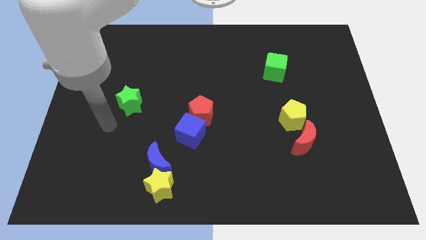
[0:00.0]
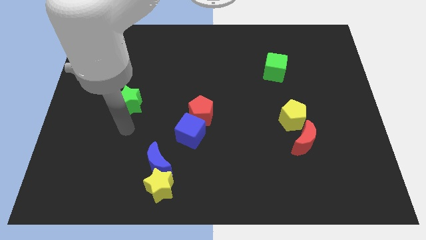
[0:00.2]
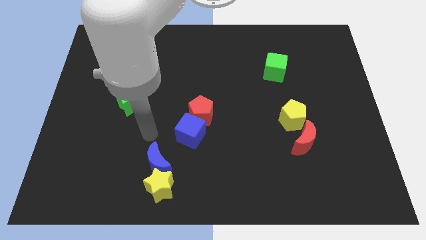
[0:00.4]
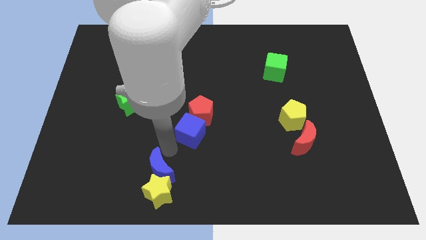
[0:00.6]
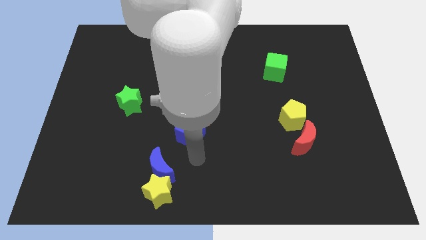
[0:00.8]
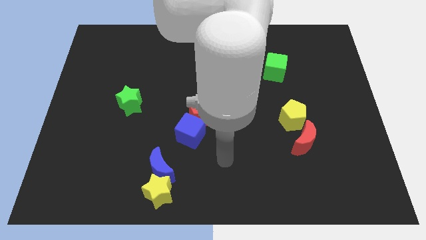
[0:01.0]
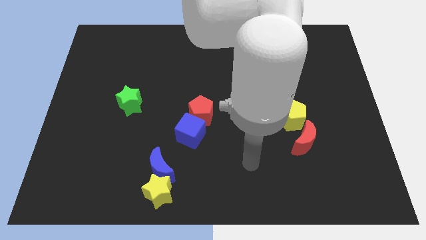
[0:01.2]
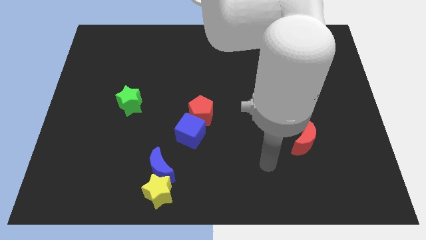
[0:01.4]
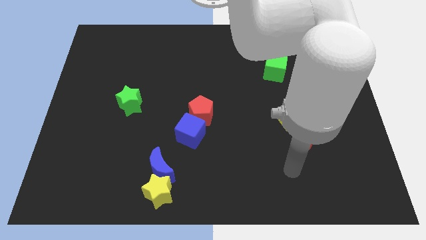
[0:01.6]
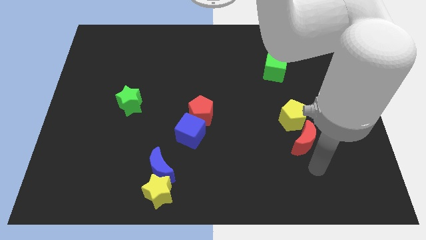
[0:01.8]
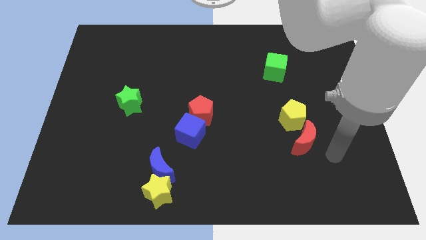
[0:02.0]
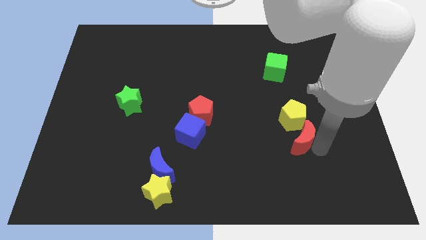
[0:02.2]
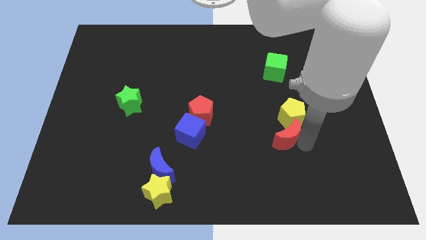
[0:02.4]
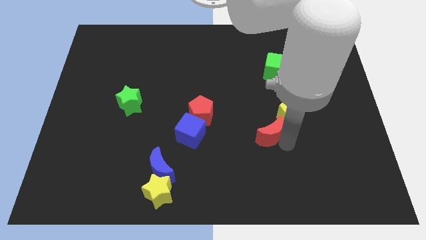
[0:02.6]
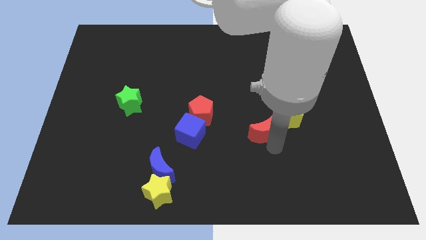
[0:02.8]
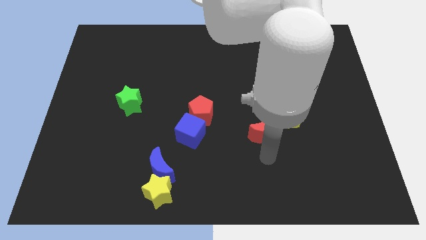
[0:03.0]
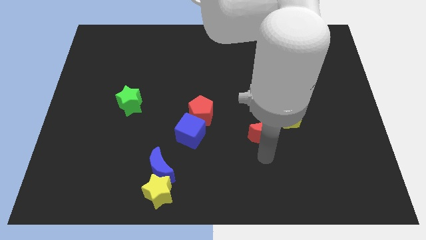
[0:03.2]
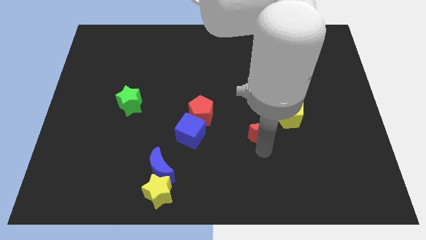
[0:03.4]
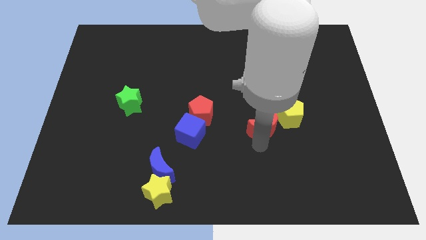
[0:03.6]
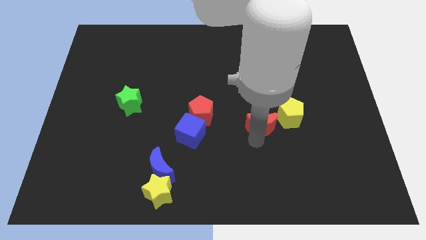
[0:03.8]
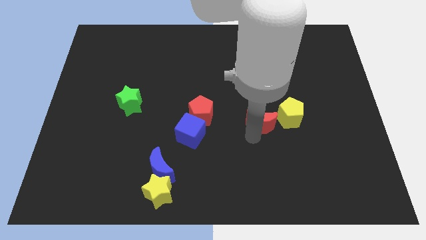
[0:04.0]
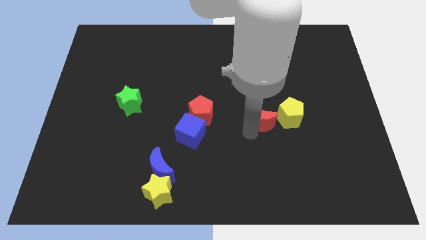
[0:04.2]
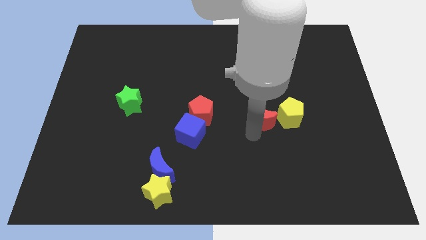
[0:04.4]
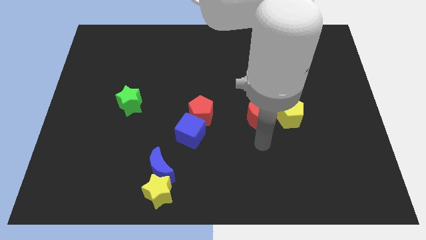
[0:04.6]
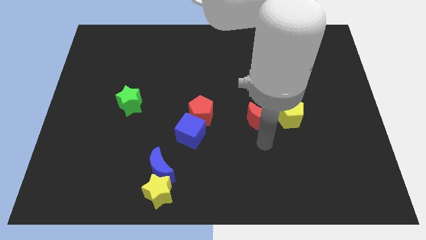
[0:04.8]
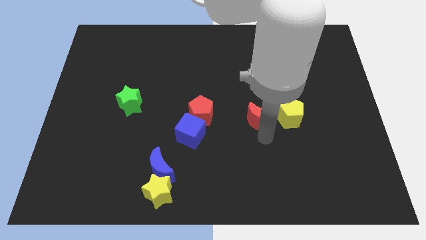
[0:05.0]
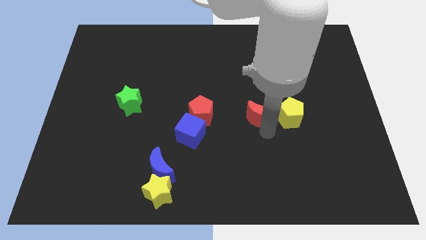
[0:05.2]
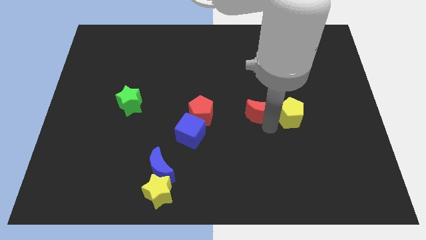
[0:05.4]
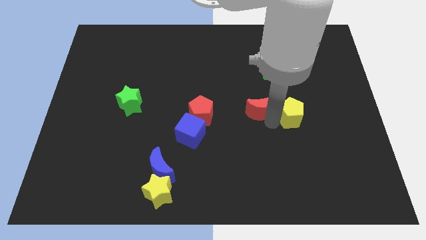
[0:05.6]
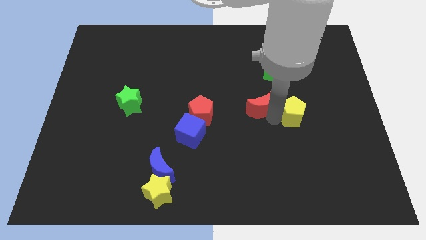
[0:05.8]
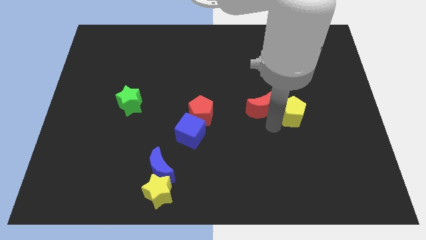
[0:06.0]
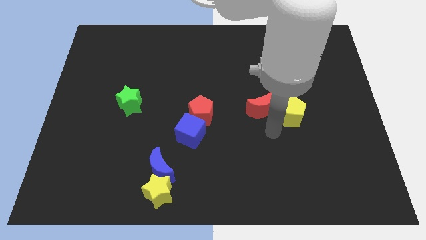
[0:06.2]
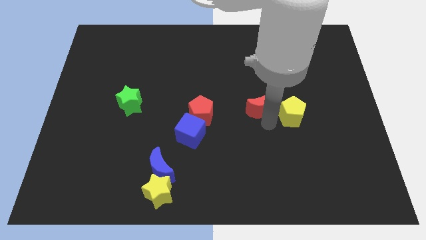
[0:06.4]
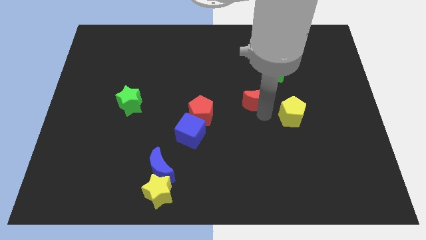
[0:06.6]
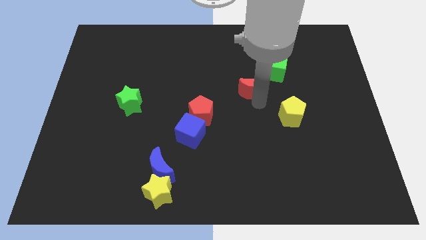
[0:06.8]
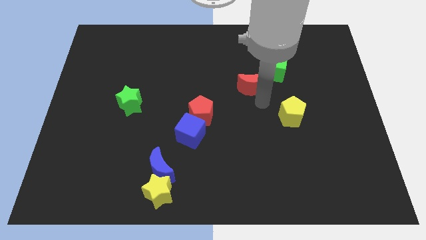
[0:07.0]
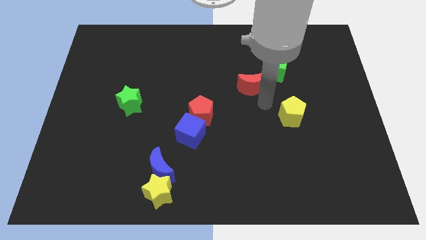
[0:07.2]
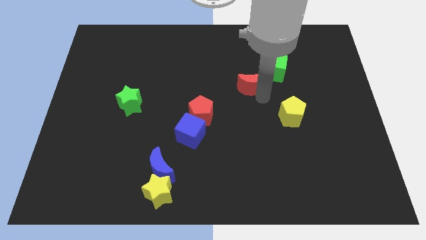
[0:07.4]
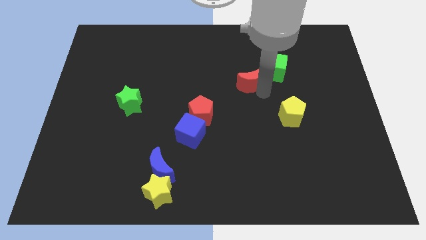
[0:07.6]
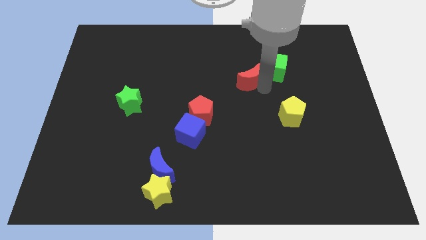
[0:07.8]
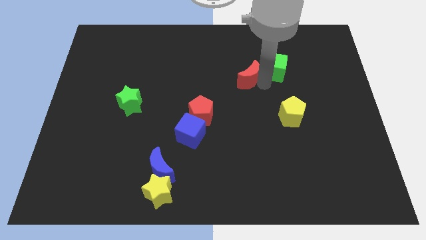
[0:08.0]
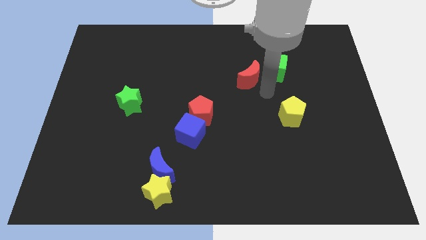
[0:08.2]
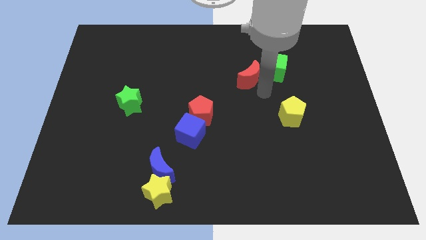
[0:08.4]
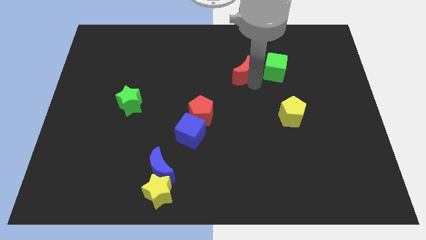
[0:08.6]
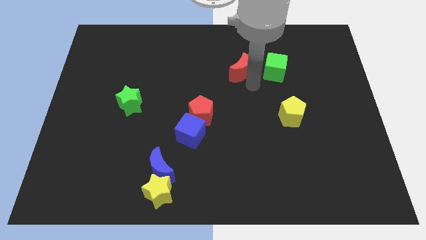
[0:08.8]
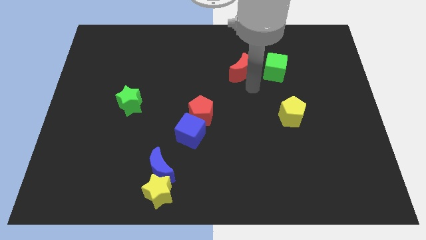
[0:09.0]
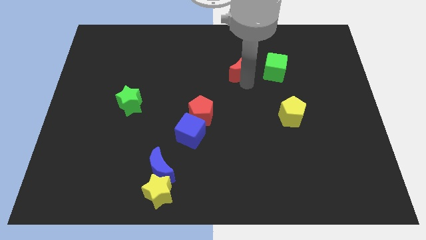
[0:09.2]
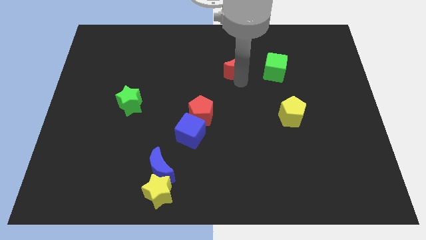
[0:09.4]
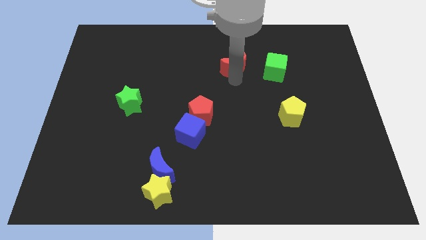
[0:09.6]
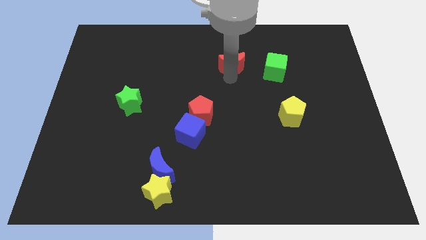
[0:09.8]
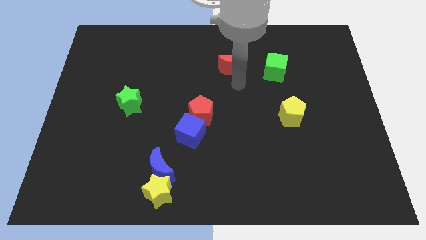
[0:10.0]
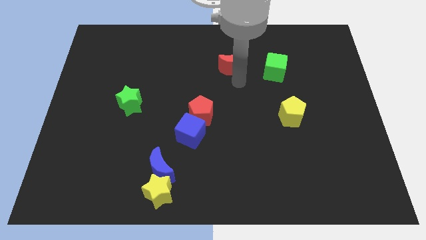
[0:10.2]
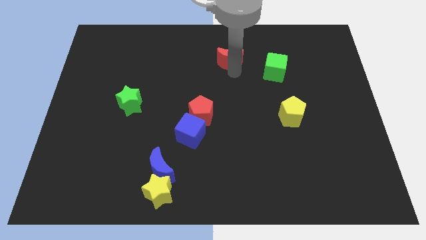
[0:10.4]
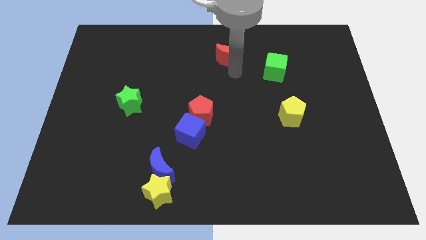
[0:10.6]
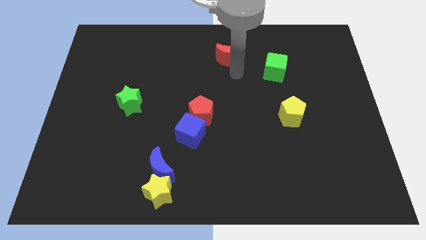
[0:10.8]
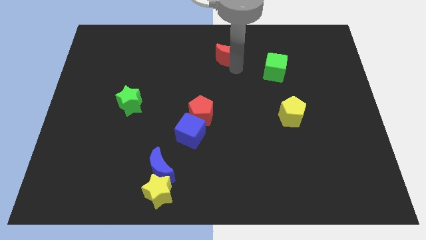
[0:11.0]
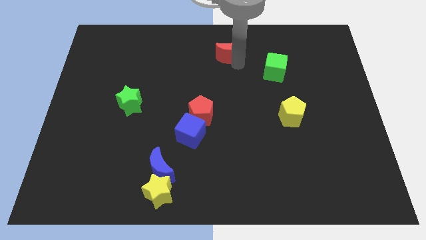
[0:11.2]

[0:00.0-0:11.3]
push the red moon to the top side
